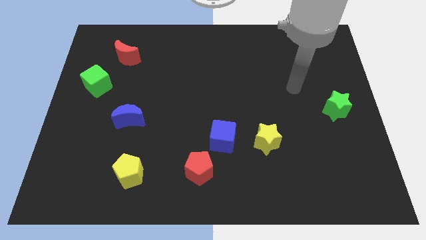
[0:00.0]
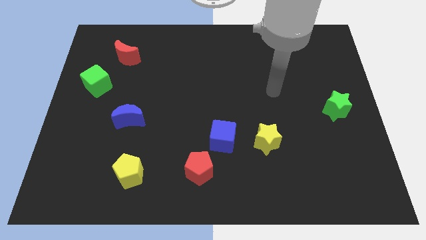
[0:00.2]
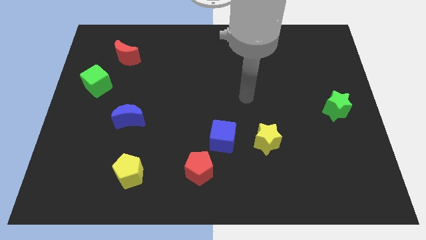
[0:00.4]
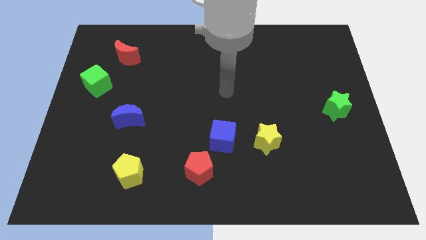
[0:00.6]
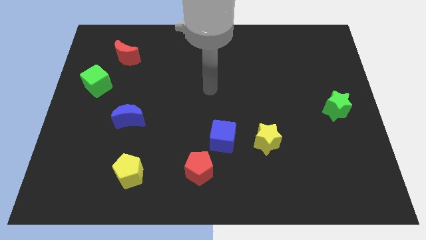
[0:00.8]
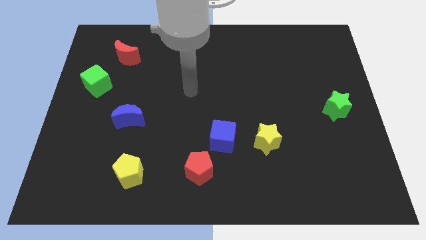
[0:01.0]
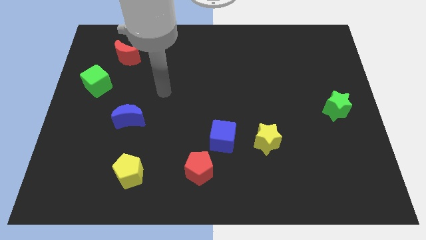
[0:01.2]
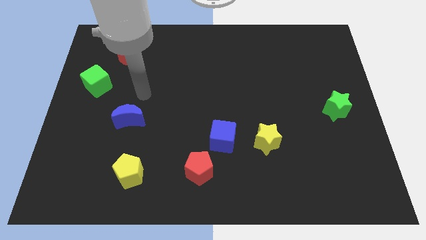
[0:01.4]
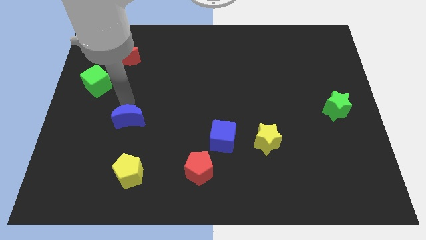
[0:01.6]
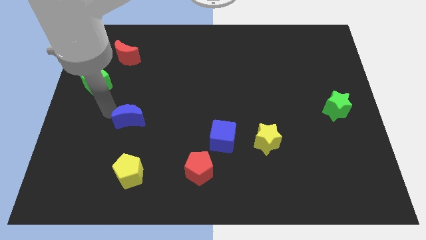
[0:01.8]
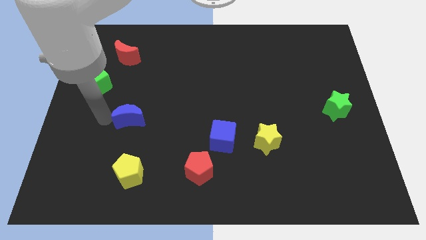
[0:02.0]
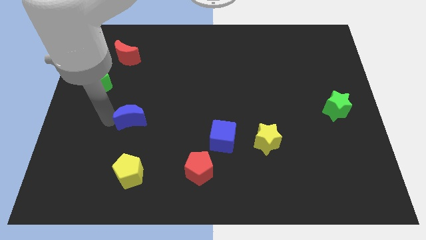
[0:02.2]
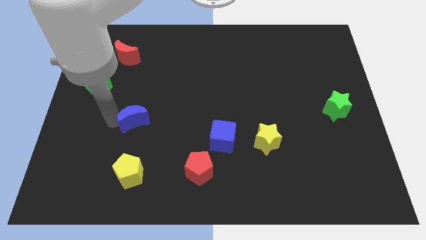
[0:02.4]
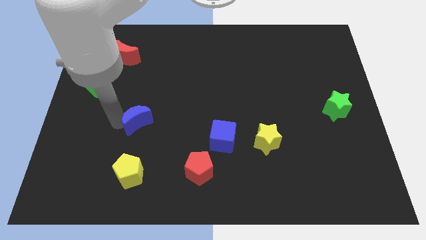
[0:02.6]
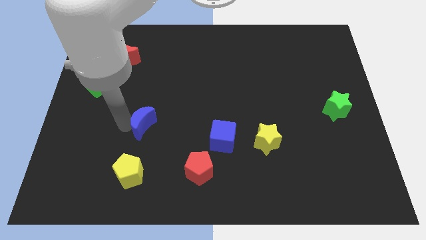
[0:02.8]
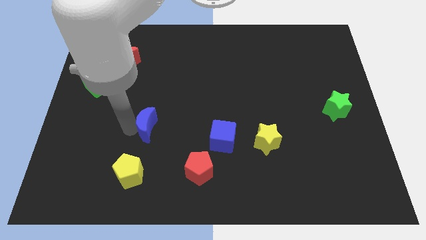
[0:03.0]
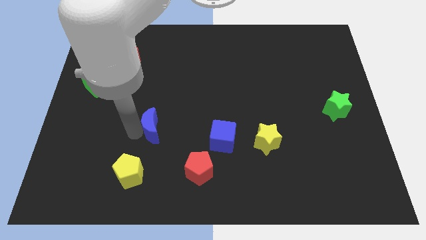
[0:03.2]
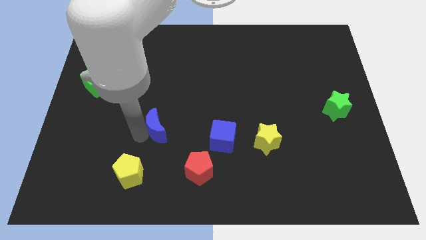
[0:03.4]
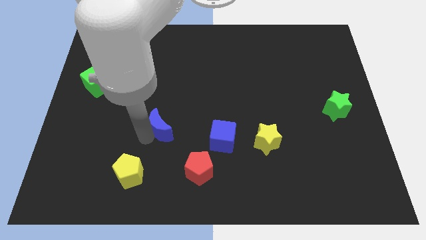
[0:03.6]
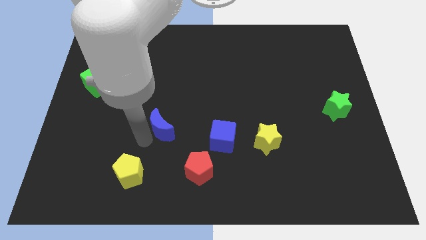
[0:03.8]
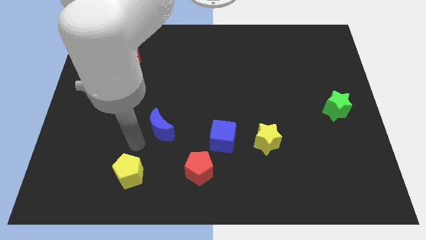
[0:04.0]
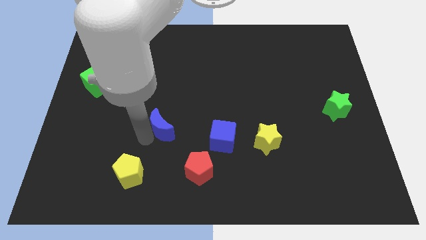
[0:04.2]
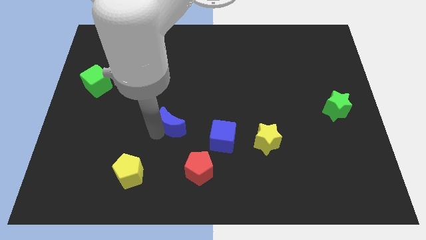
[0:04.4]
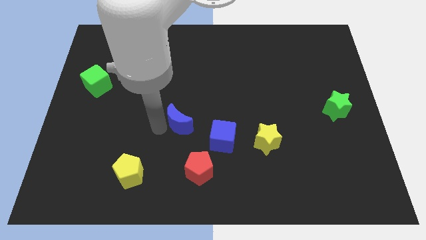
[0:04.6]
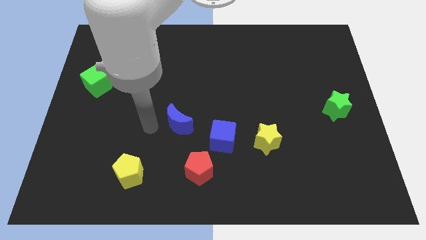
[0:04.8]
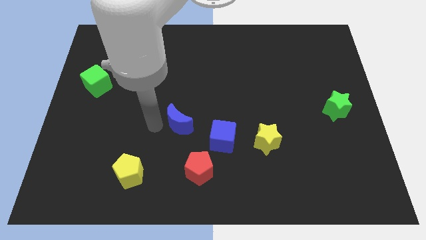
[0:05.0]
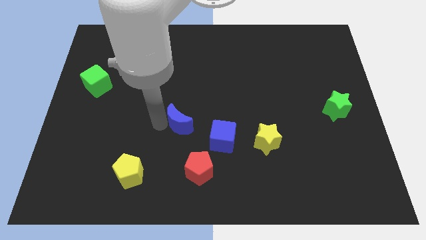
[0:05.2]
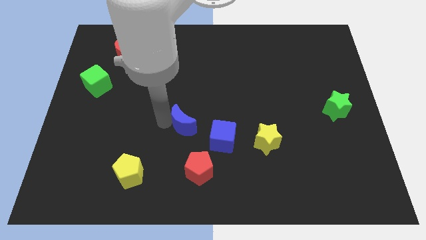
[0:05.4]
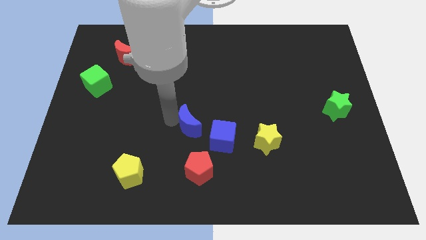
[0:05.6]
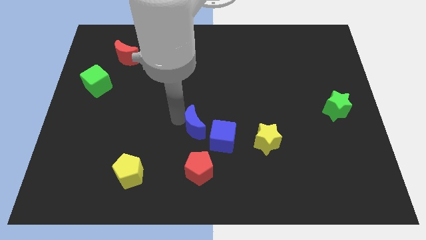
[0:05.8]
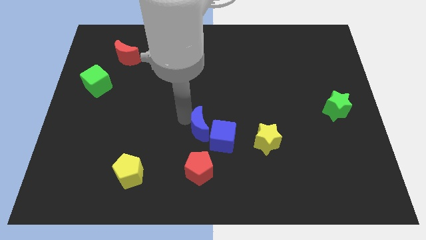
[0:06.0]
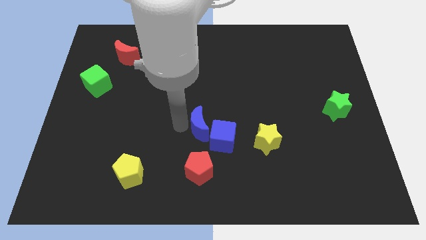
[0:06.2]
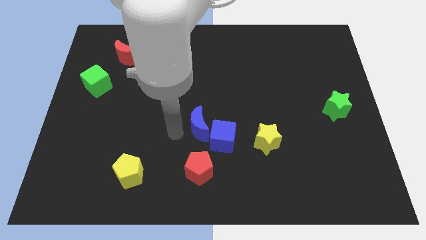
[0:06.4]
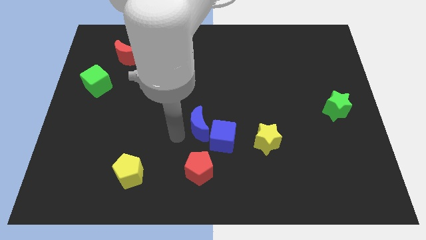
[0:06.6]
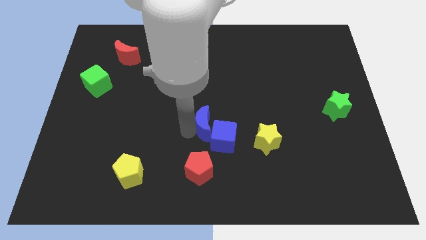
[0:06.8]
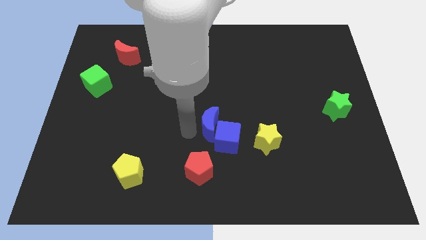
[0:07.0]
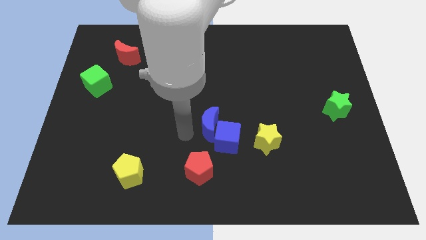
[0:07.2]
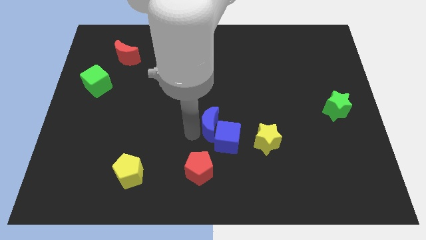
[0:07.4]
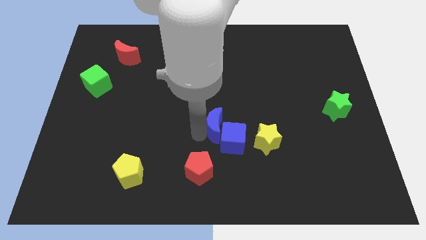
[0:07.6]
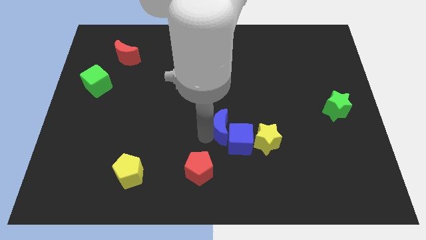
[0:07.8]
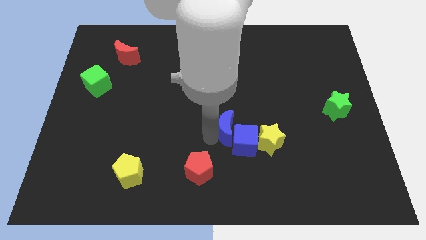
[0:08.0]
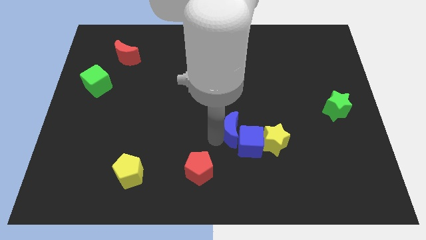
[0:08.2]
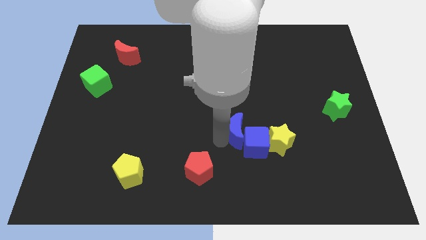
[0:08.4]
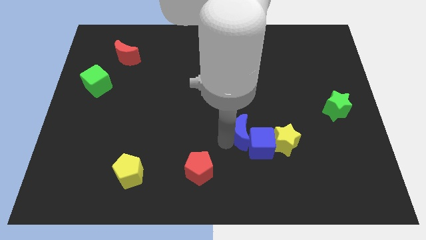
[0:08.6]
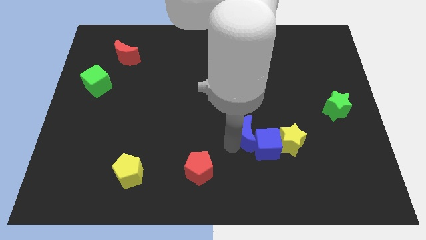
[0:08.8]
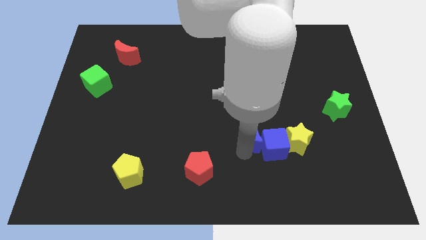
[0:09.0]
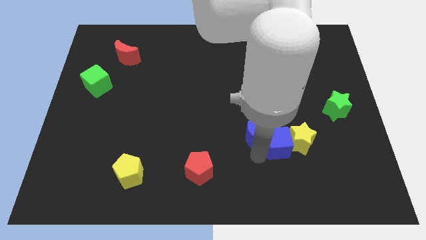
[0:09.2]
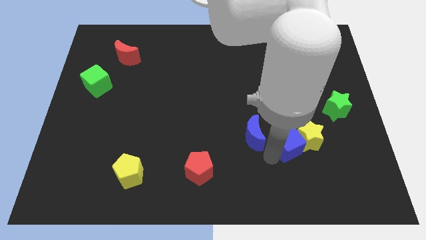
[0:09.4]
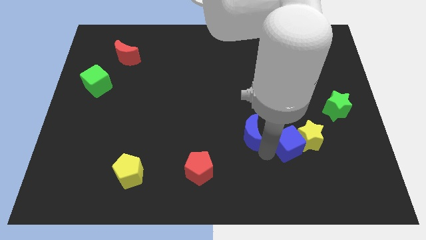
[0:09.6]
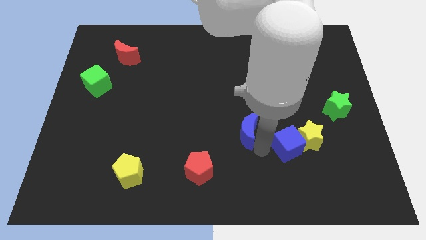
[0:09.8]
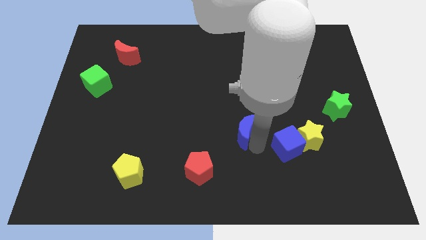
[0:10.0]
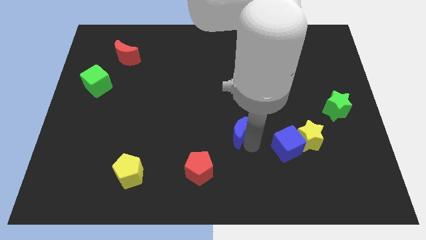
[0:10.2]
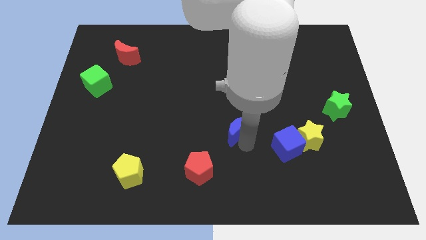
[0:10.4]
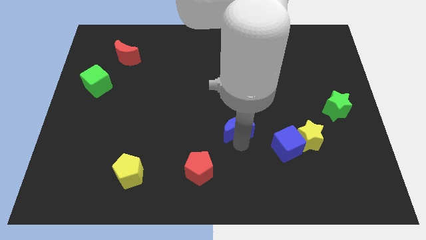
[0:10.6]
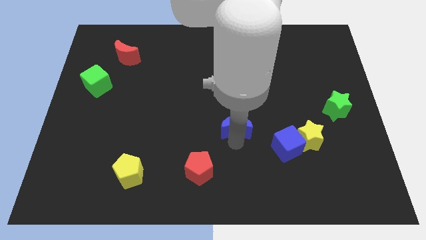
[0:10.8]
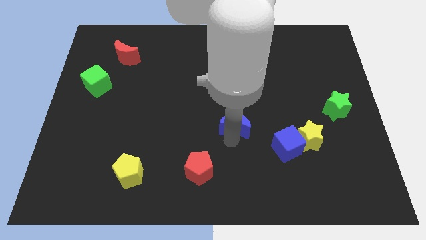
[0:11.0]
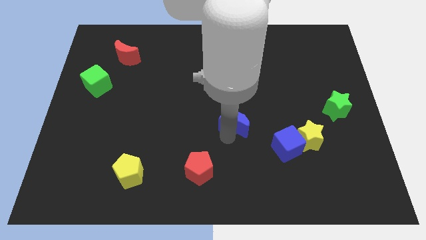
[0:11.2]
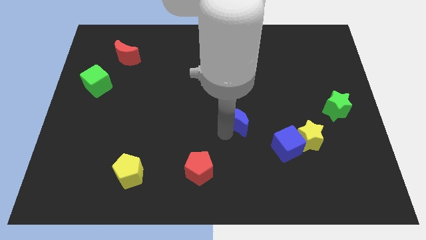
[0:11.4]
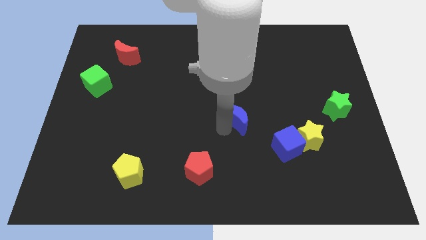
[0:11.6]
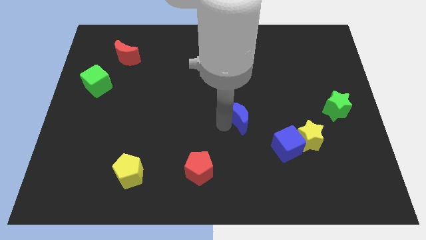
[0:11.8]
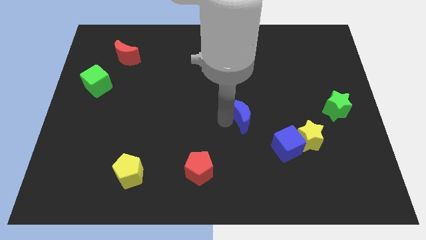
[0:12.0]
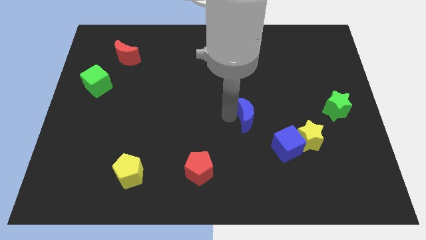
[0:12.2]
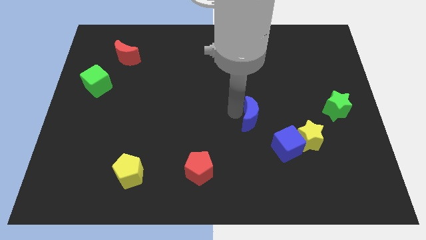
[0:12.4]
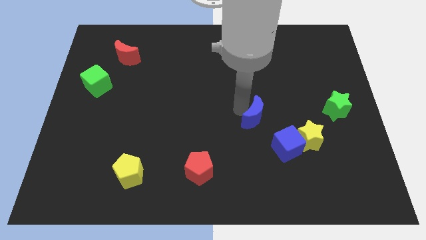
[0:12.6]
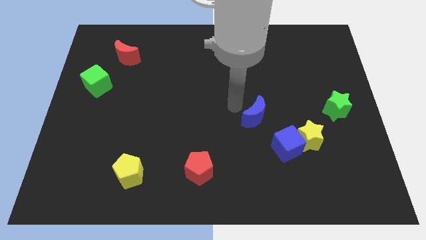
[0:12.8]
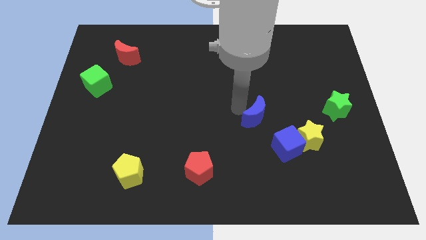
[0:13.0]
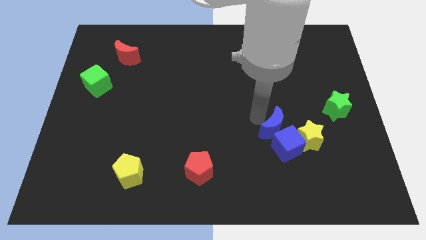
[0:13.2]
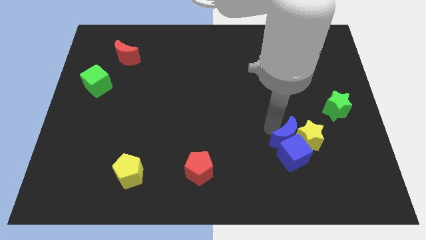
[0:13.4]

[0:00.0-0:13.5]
put the blue moon to the yellow star
